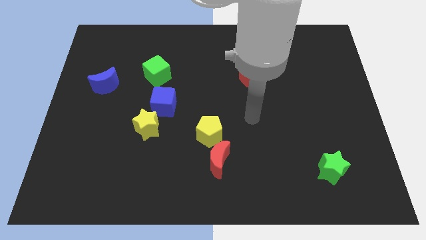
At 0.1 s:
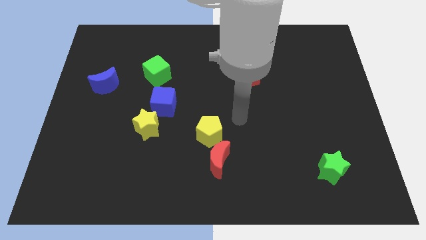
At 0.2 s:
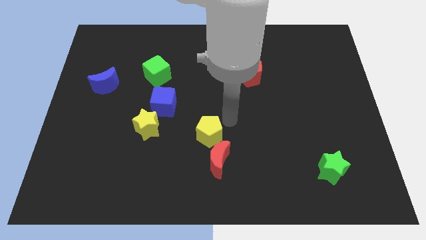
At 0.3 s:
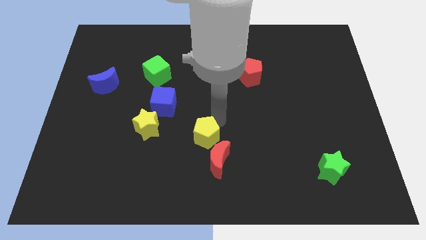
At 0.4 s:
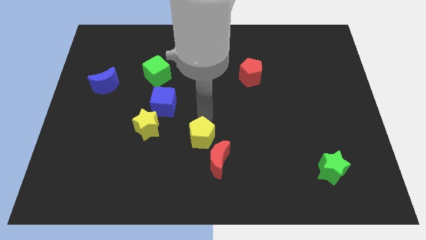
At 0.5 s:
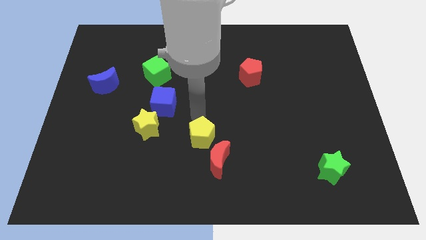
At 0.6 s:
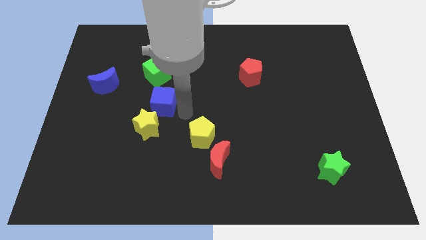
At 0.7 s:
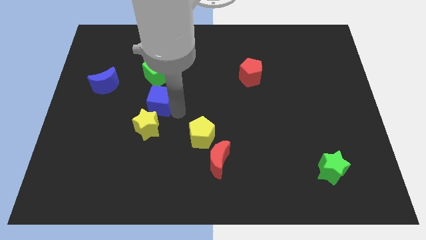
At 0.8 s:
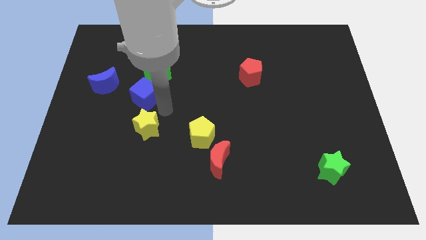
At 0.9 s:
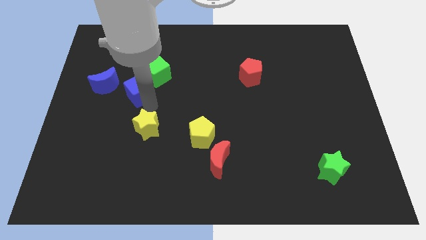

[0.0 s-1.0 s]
pull the yellow star apart from the blue cube

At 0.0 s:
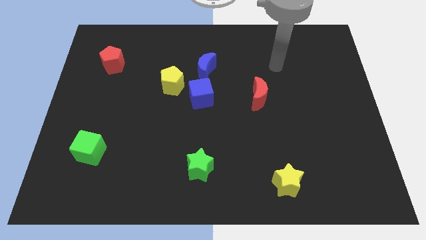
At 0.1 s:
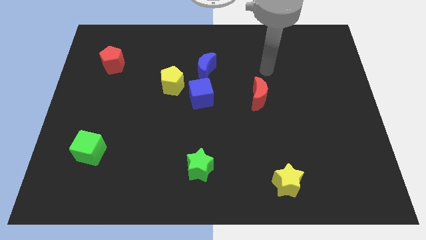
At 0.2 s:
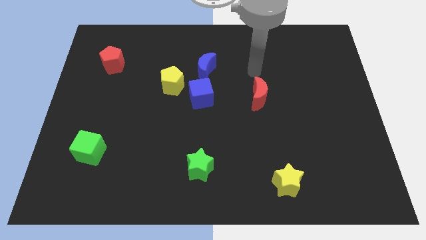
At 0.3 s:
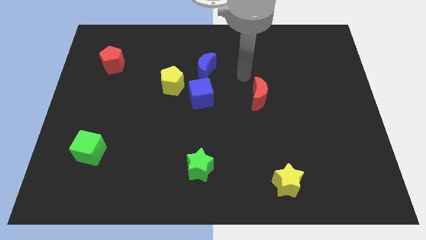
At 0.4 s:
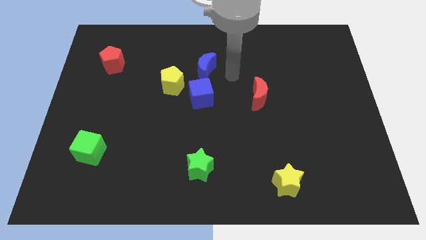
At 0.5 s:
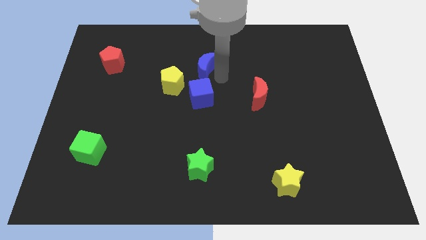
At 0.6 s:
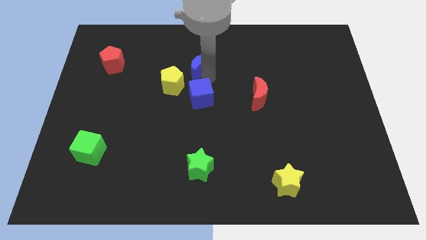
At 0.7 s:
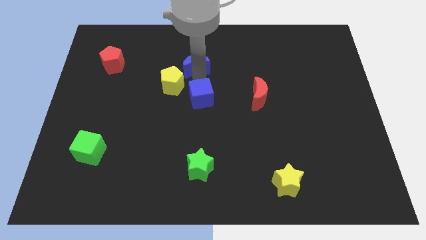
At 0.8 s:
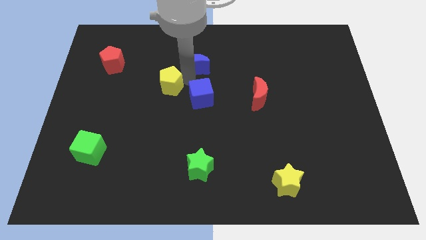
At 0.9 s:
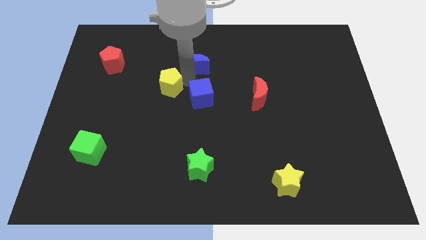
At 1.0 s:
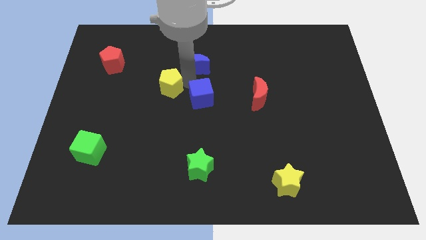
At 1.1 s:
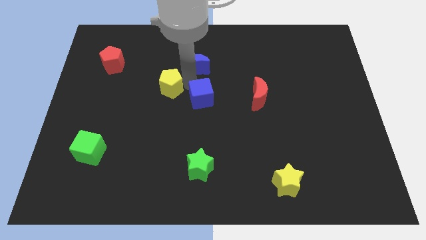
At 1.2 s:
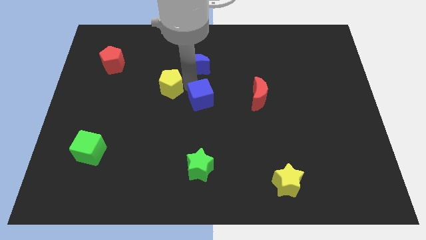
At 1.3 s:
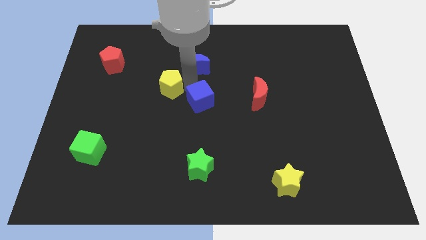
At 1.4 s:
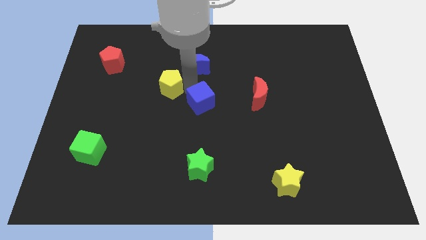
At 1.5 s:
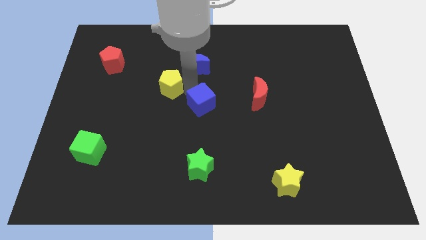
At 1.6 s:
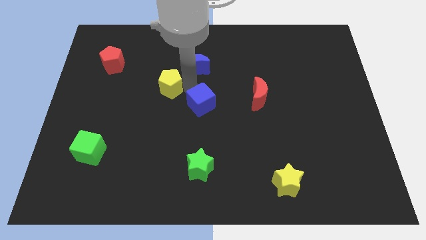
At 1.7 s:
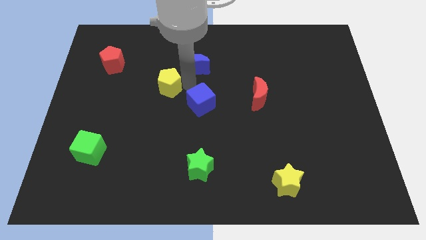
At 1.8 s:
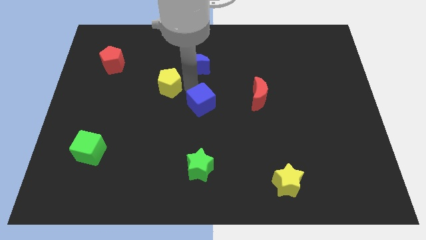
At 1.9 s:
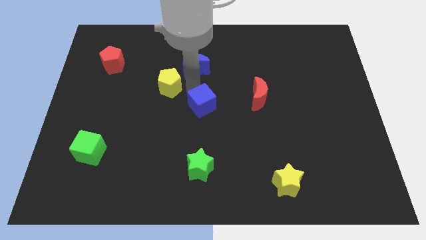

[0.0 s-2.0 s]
pull the blue cube apart from the yellow pentagon and blue moon

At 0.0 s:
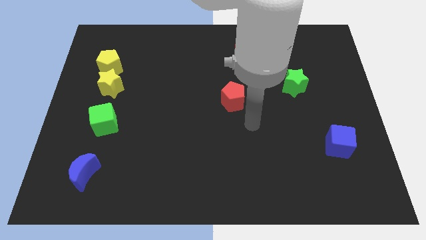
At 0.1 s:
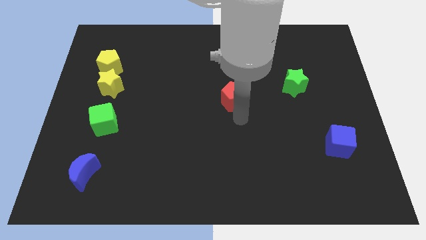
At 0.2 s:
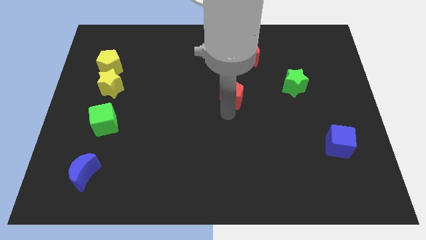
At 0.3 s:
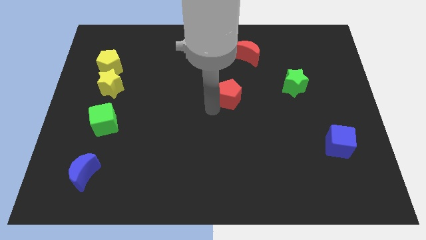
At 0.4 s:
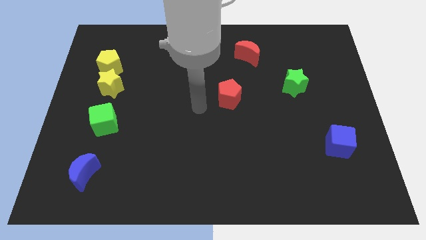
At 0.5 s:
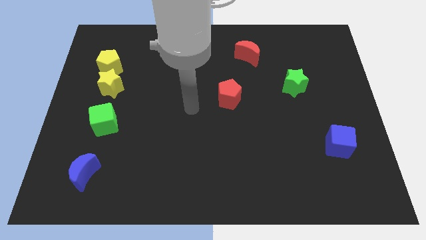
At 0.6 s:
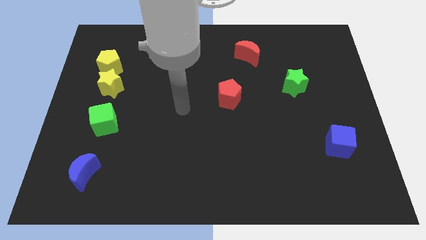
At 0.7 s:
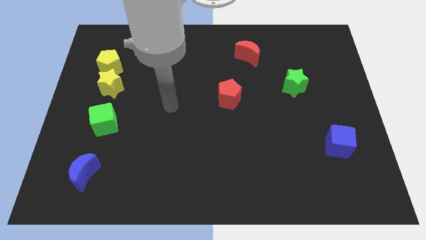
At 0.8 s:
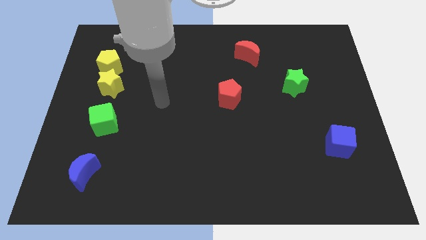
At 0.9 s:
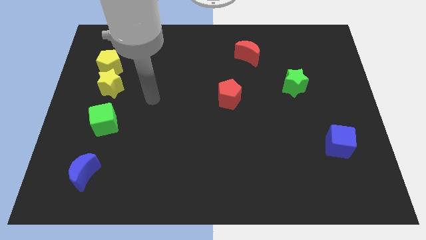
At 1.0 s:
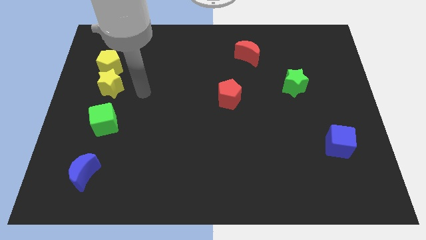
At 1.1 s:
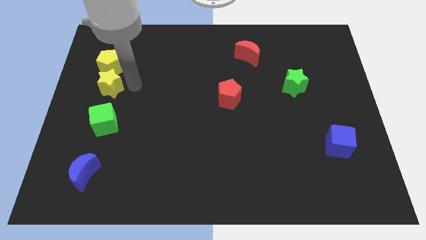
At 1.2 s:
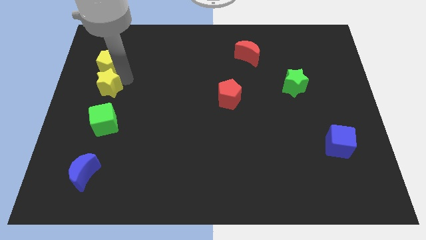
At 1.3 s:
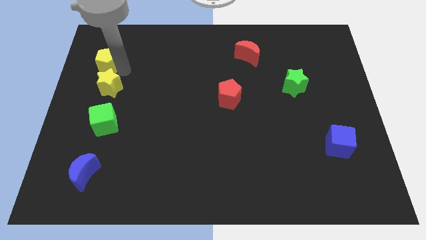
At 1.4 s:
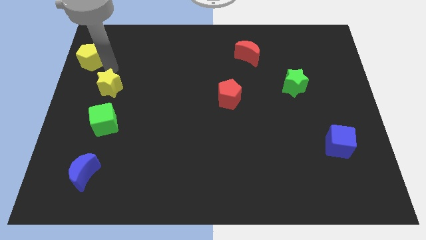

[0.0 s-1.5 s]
pull the yellow star apart from the yellow pentagon

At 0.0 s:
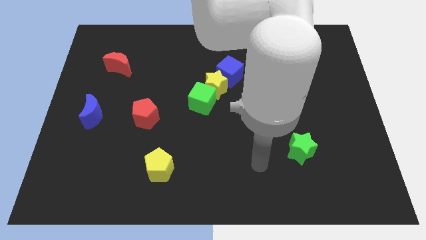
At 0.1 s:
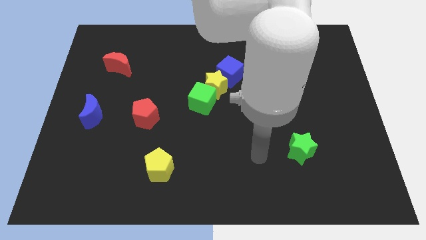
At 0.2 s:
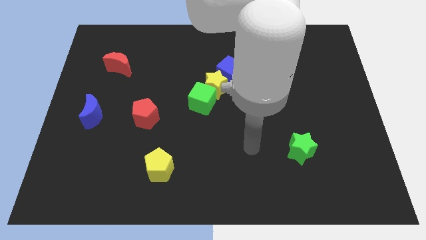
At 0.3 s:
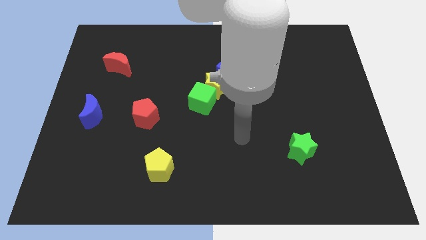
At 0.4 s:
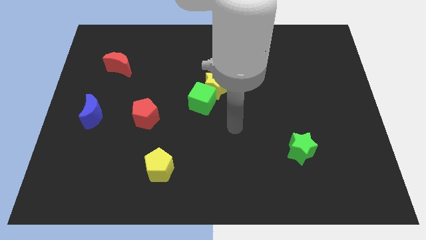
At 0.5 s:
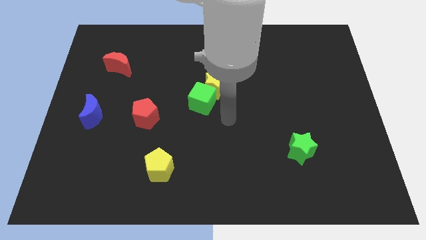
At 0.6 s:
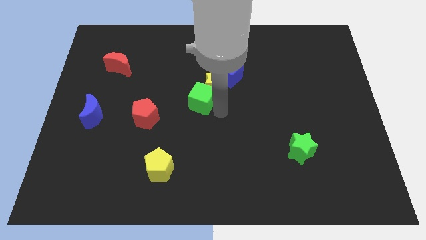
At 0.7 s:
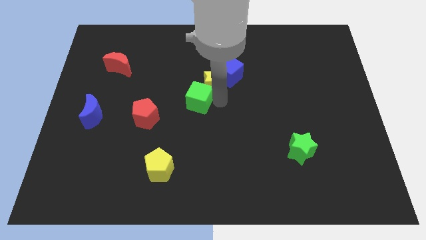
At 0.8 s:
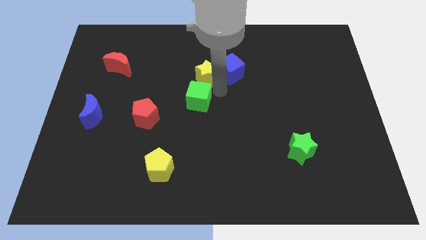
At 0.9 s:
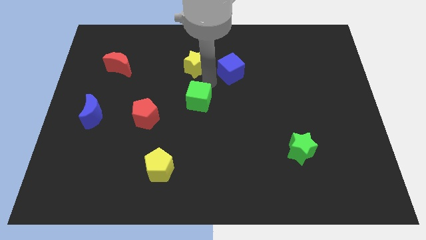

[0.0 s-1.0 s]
move the green cube away from the yellow star

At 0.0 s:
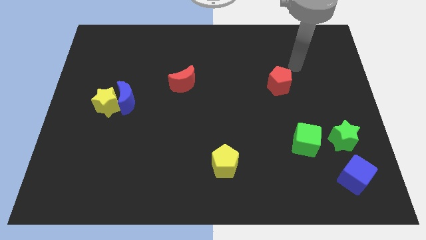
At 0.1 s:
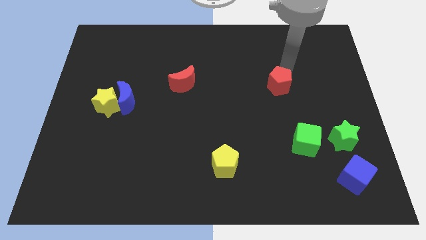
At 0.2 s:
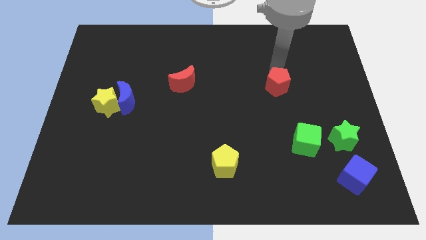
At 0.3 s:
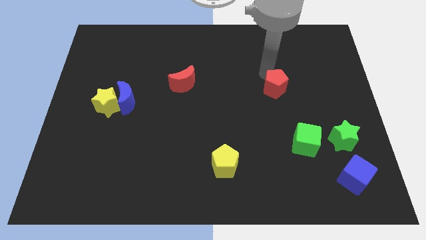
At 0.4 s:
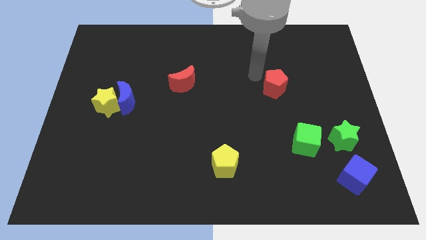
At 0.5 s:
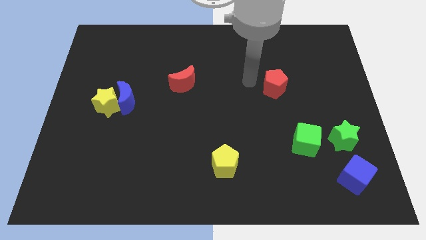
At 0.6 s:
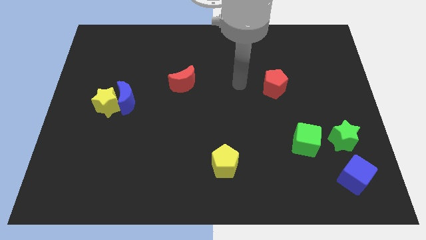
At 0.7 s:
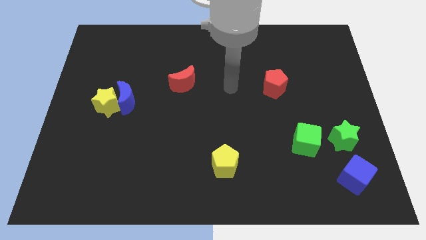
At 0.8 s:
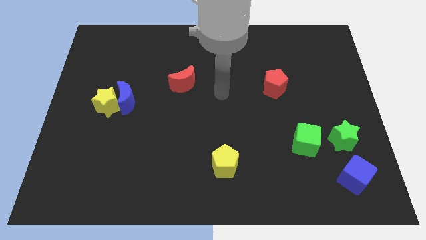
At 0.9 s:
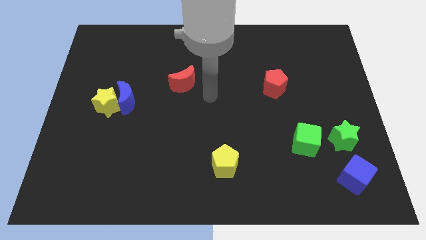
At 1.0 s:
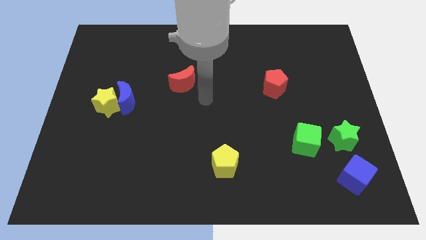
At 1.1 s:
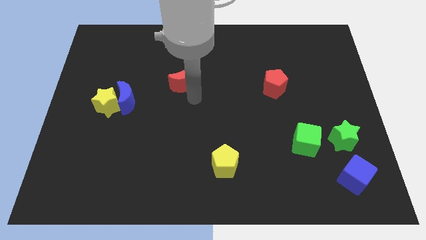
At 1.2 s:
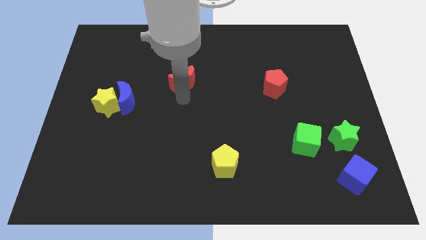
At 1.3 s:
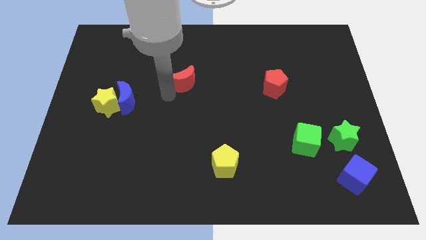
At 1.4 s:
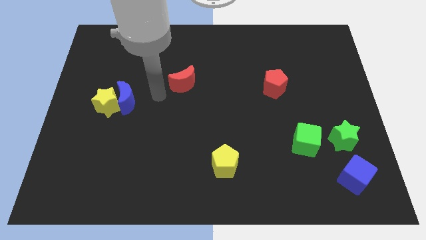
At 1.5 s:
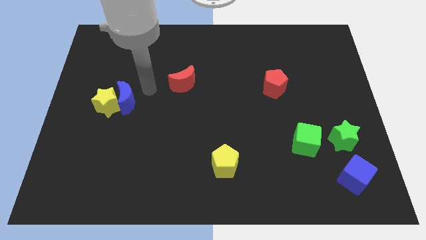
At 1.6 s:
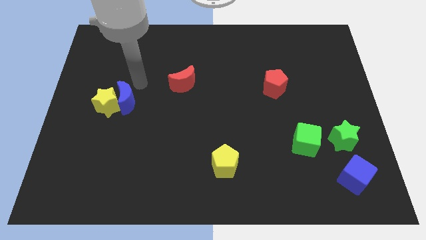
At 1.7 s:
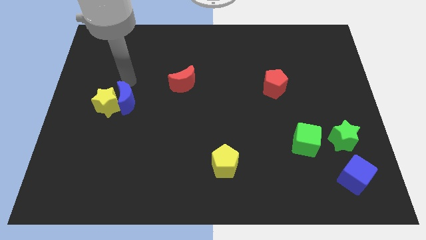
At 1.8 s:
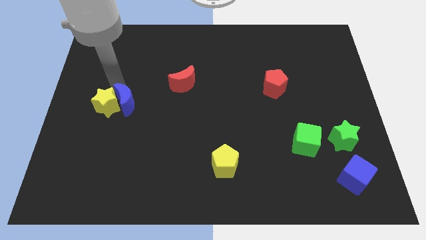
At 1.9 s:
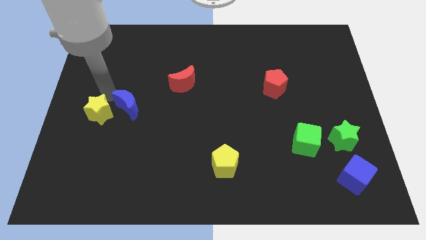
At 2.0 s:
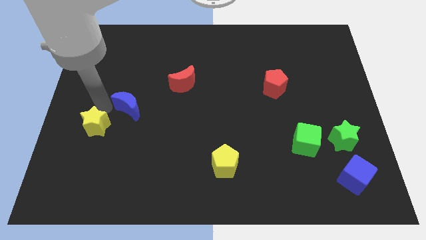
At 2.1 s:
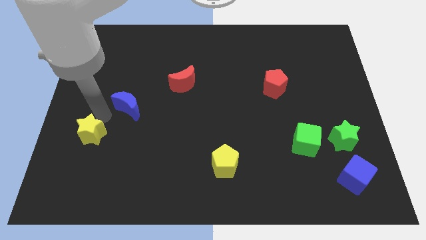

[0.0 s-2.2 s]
move the blue moon away from the yellow star

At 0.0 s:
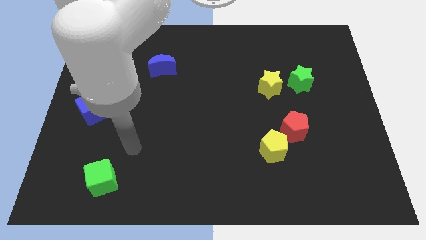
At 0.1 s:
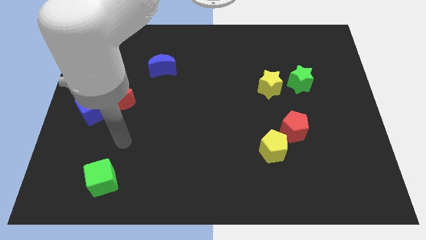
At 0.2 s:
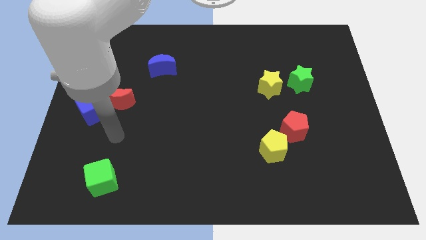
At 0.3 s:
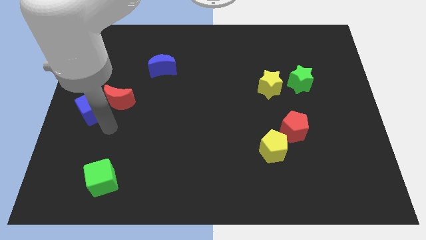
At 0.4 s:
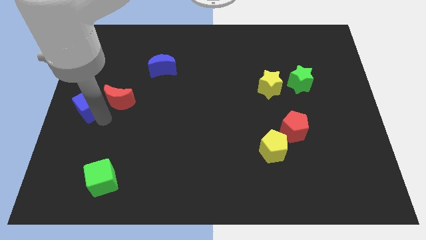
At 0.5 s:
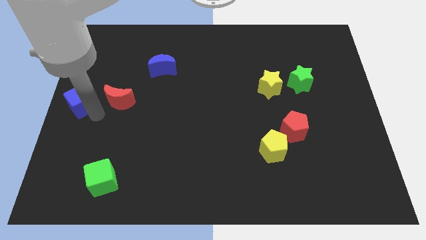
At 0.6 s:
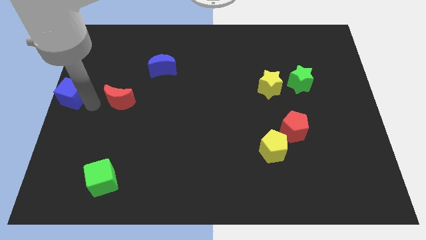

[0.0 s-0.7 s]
move the red moon away from the blue cube

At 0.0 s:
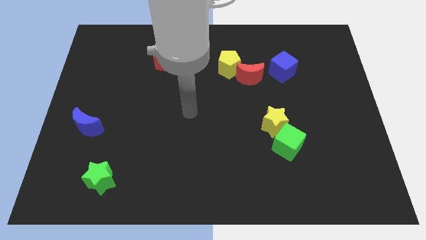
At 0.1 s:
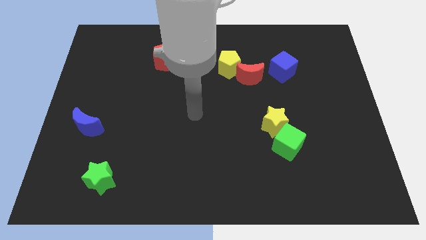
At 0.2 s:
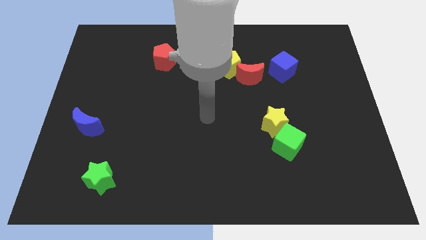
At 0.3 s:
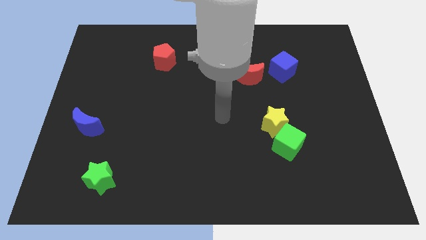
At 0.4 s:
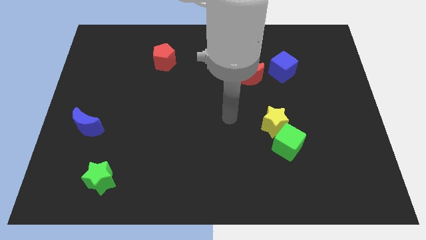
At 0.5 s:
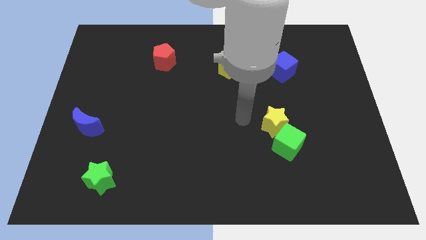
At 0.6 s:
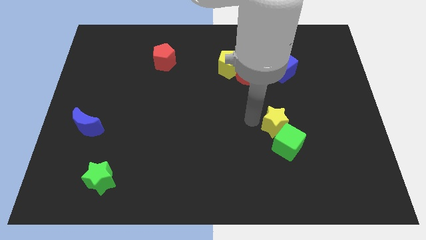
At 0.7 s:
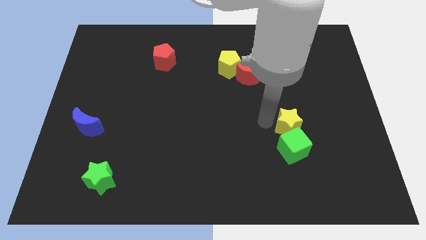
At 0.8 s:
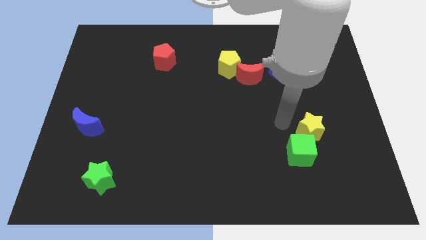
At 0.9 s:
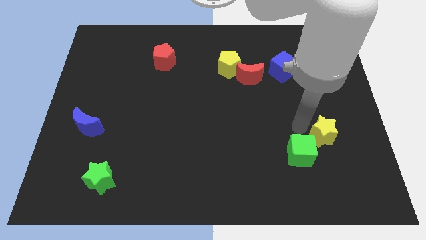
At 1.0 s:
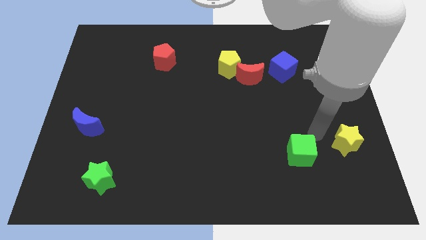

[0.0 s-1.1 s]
separate the green cube from the yellow star
